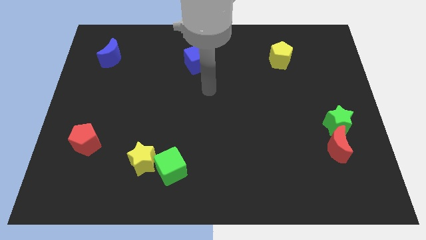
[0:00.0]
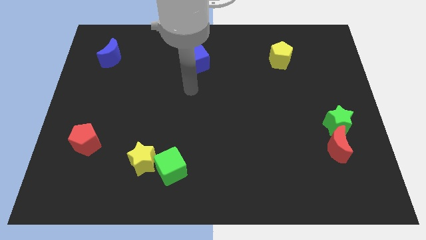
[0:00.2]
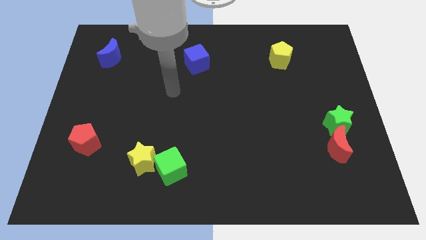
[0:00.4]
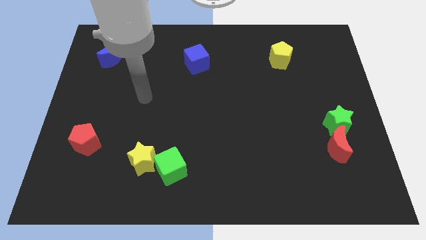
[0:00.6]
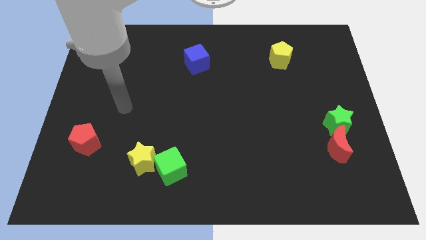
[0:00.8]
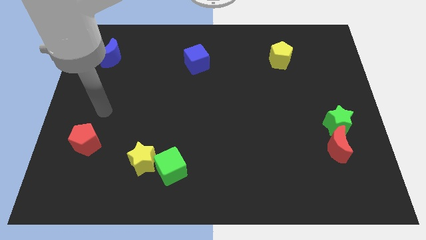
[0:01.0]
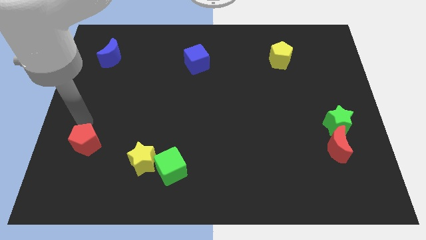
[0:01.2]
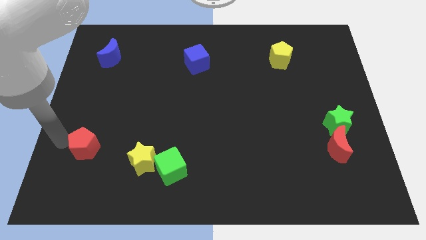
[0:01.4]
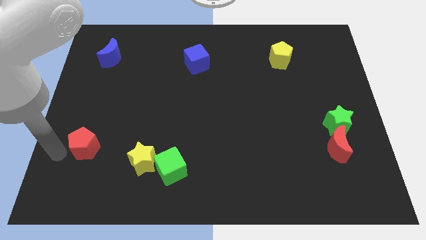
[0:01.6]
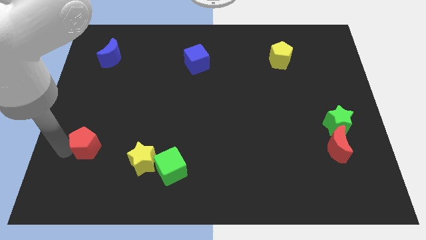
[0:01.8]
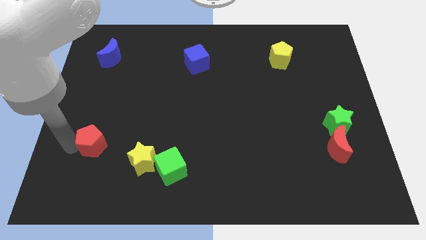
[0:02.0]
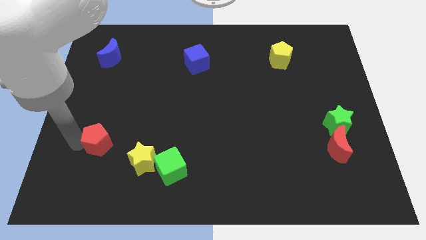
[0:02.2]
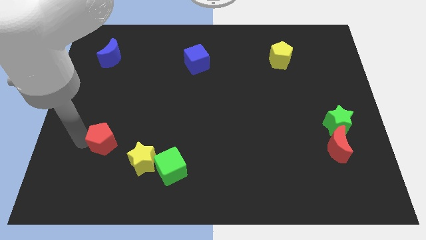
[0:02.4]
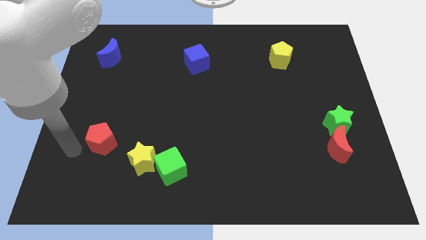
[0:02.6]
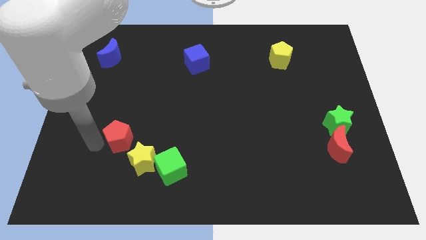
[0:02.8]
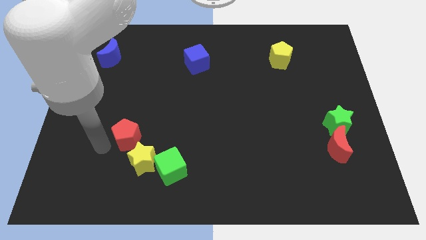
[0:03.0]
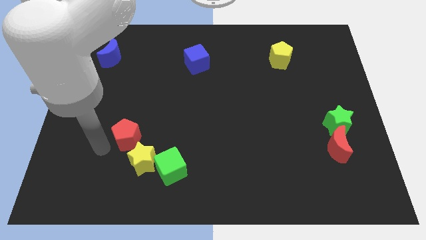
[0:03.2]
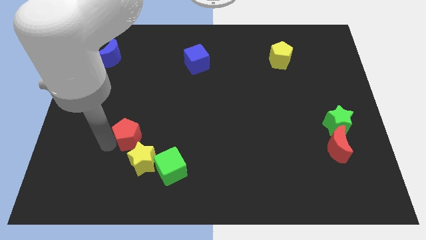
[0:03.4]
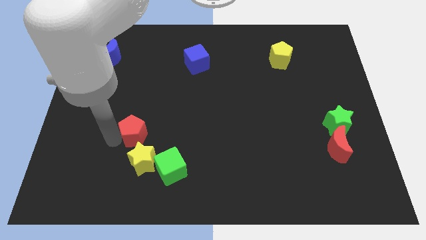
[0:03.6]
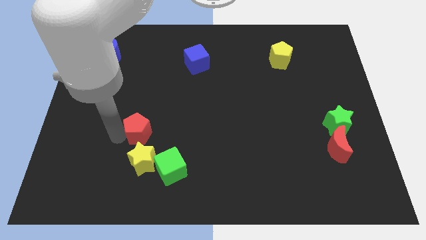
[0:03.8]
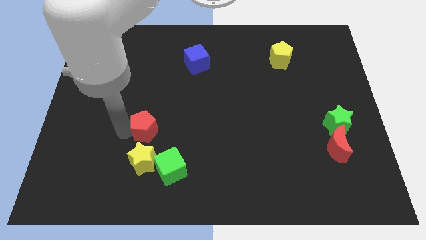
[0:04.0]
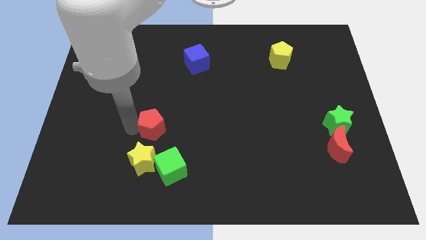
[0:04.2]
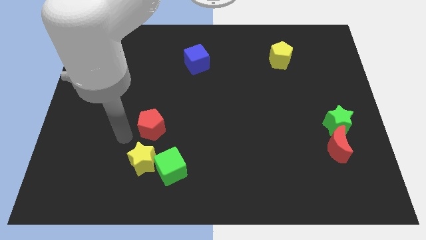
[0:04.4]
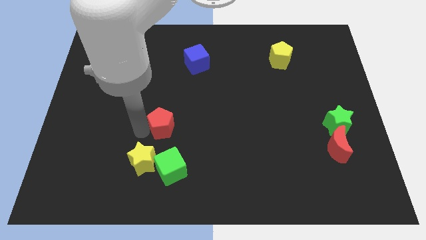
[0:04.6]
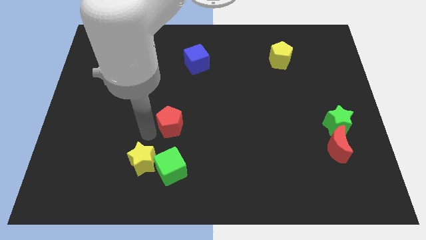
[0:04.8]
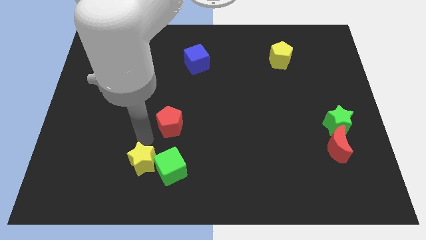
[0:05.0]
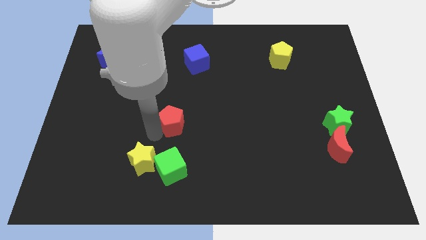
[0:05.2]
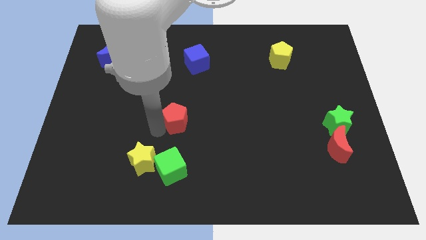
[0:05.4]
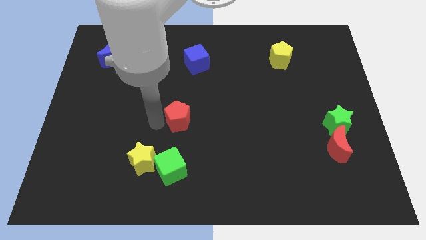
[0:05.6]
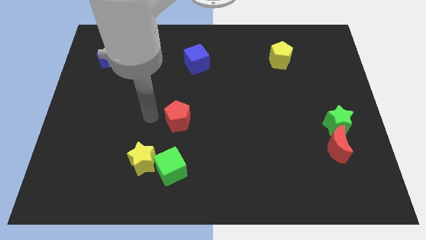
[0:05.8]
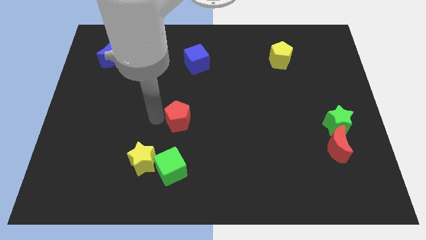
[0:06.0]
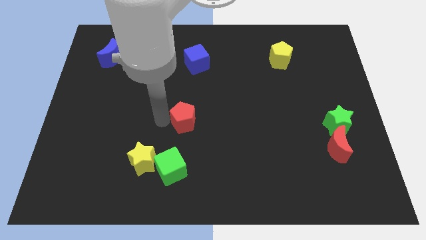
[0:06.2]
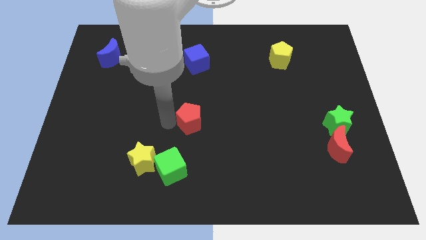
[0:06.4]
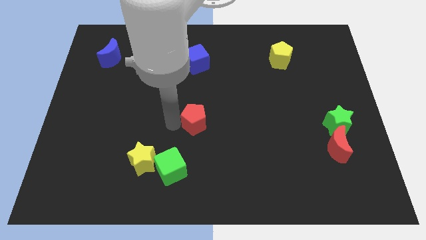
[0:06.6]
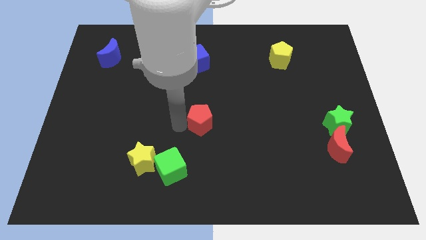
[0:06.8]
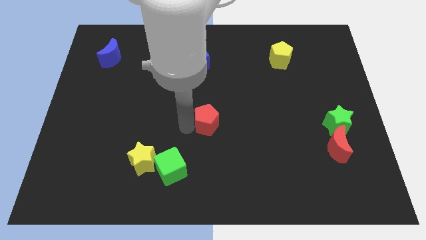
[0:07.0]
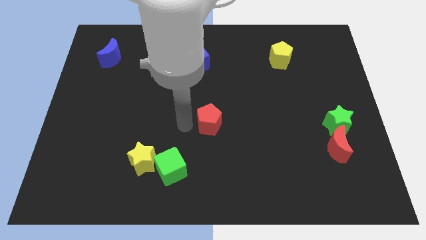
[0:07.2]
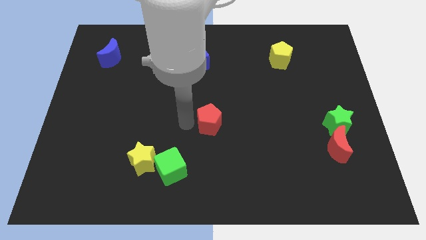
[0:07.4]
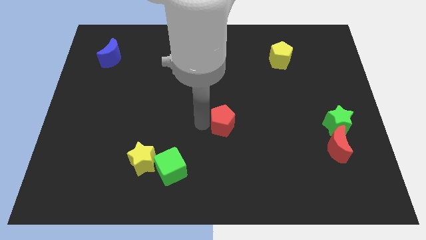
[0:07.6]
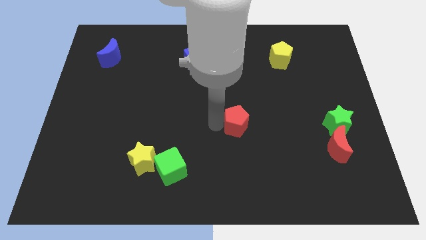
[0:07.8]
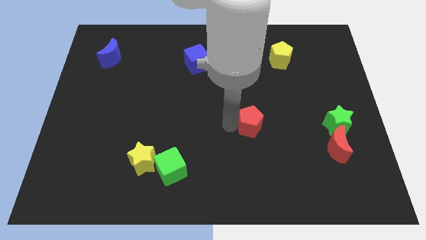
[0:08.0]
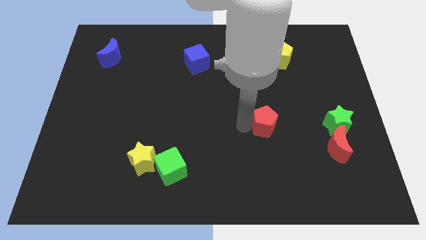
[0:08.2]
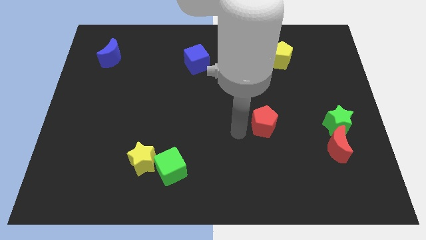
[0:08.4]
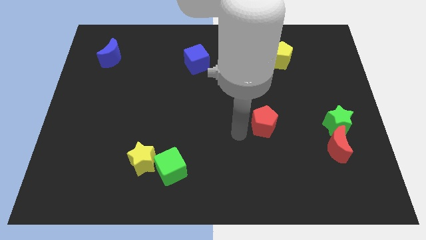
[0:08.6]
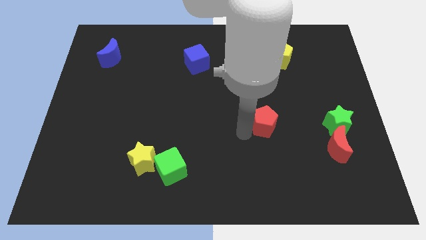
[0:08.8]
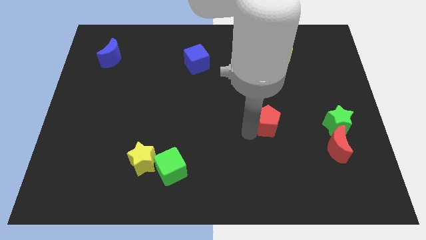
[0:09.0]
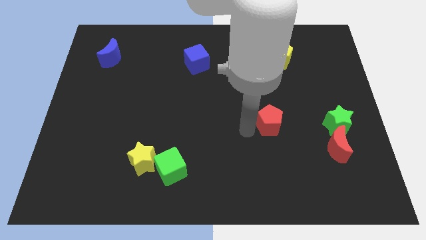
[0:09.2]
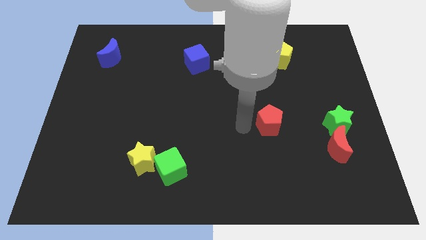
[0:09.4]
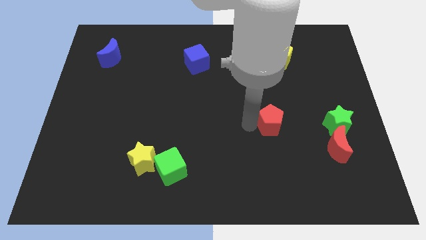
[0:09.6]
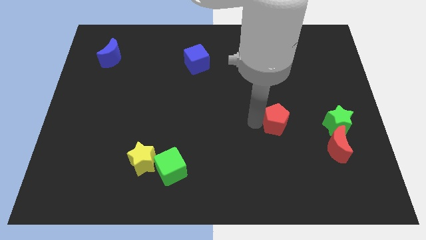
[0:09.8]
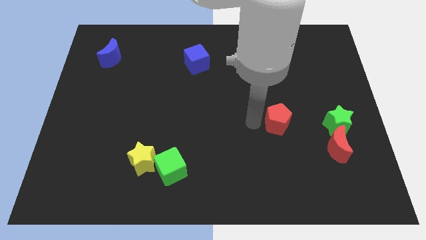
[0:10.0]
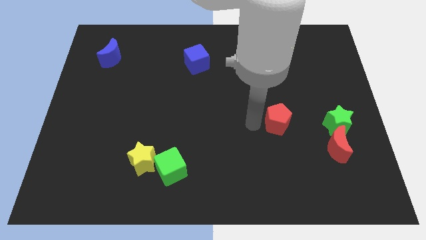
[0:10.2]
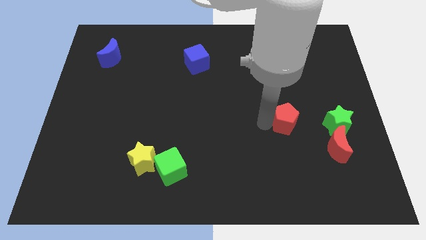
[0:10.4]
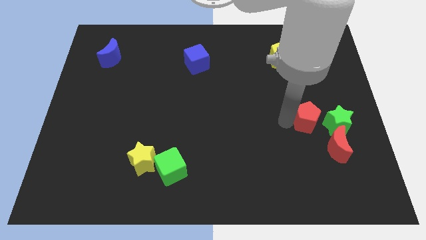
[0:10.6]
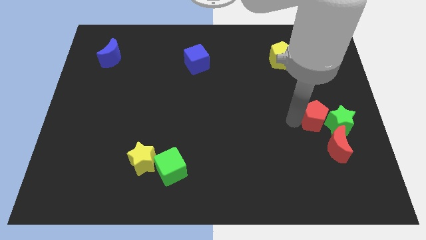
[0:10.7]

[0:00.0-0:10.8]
slide the red pentagon next to the green star

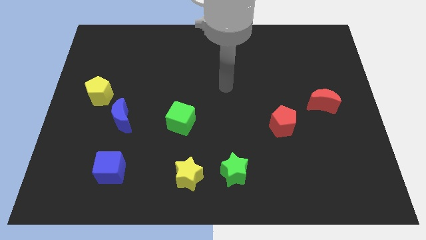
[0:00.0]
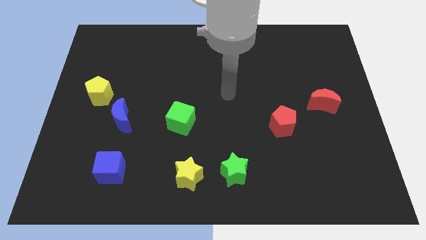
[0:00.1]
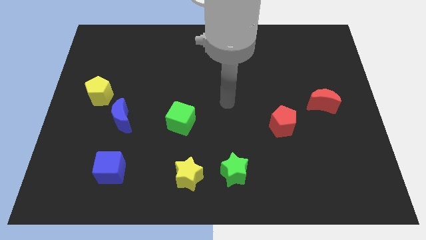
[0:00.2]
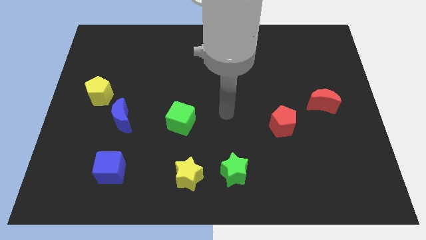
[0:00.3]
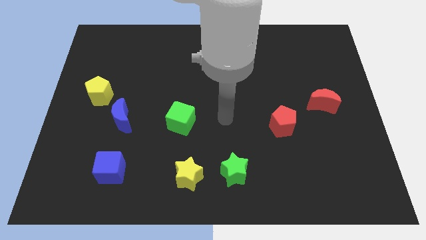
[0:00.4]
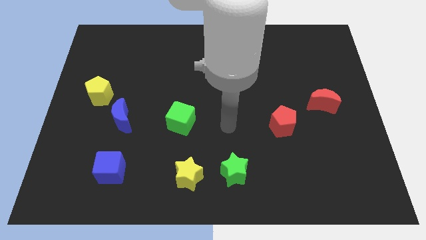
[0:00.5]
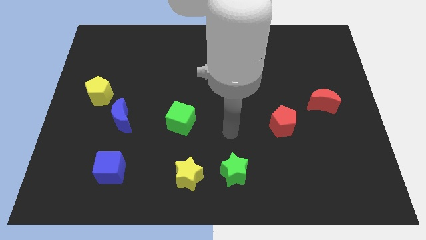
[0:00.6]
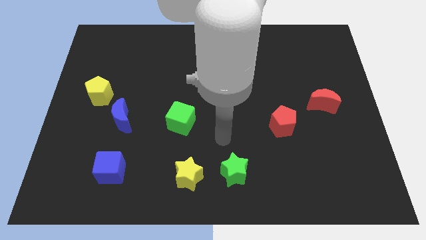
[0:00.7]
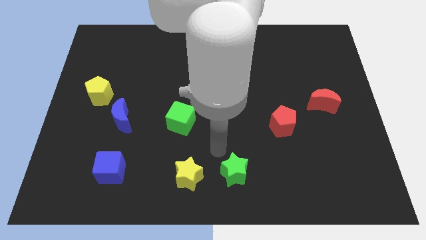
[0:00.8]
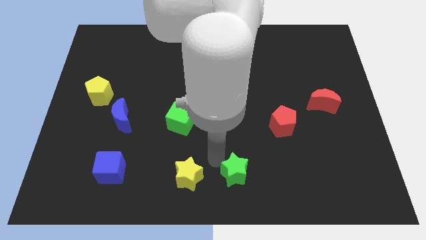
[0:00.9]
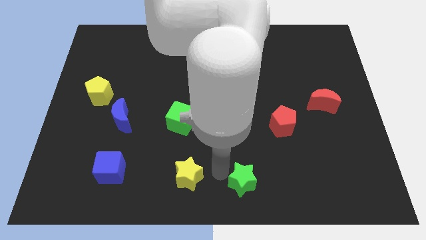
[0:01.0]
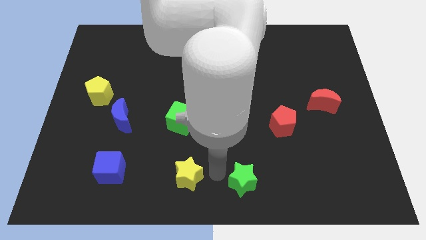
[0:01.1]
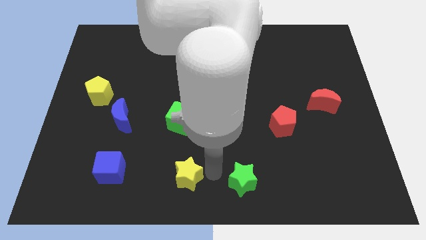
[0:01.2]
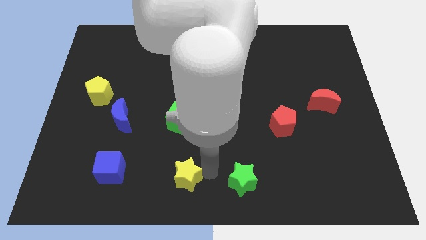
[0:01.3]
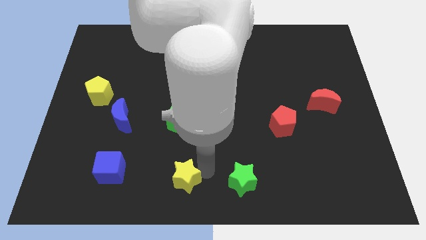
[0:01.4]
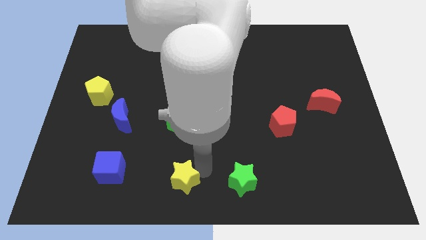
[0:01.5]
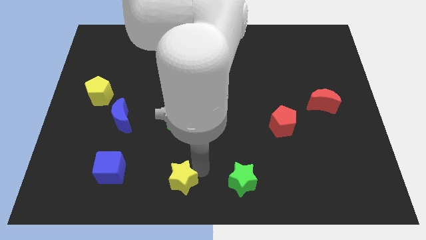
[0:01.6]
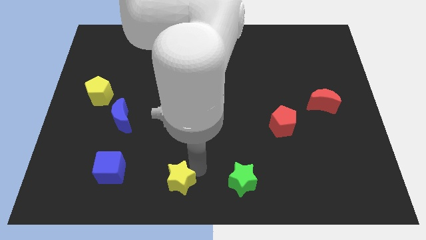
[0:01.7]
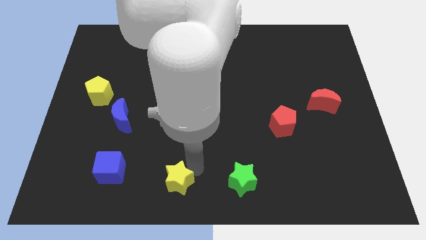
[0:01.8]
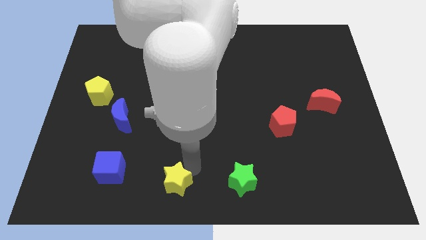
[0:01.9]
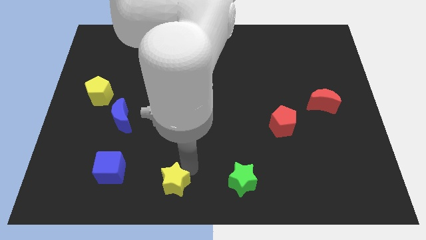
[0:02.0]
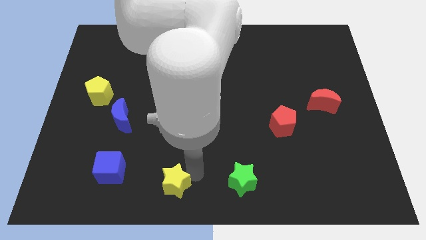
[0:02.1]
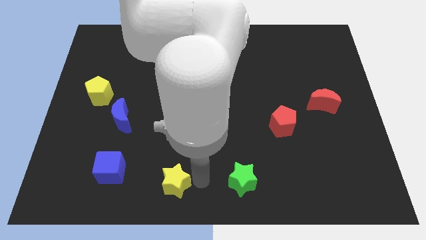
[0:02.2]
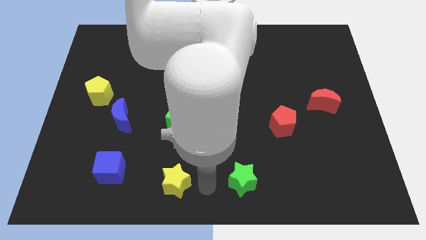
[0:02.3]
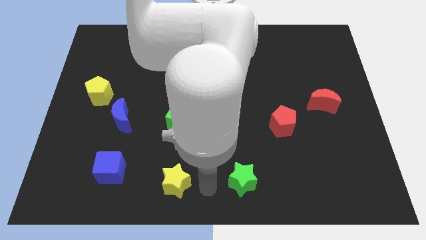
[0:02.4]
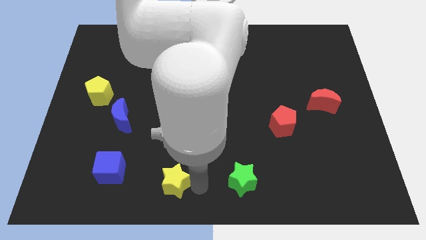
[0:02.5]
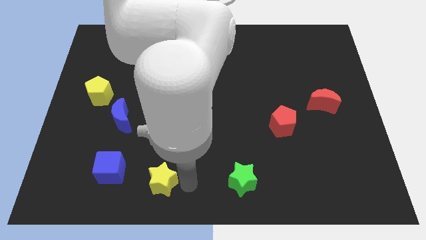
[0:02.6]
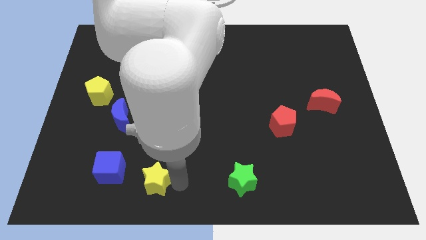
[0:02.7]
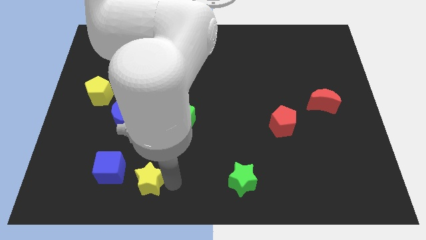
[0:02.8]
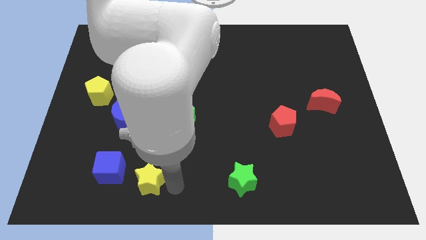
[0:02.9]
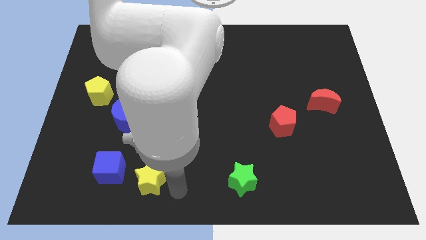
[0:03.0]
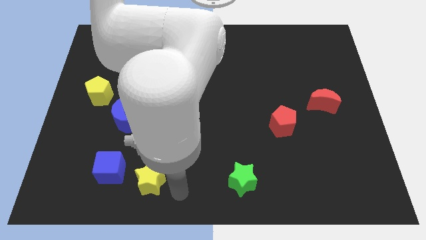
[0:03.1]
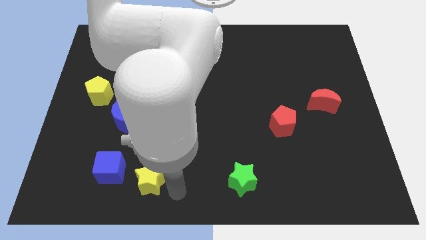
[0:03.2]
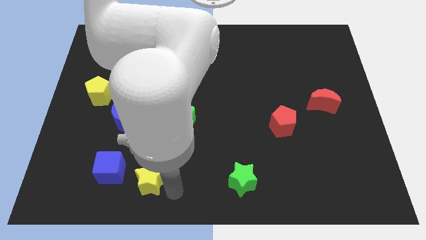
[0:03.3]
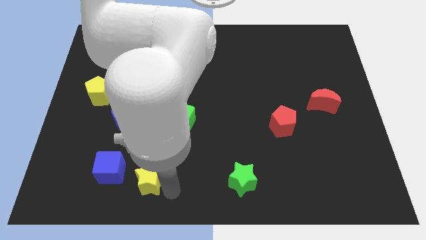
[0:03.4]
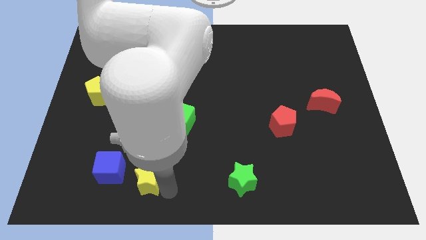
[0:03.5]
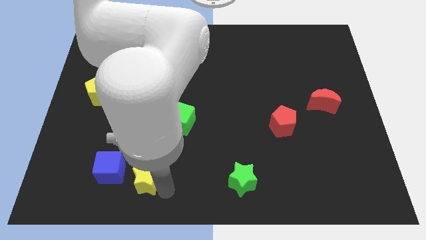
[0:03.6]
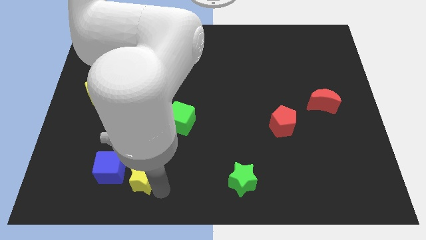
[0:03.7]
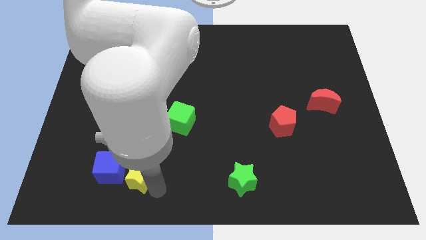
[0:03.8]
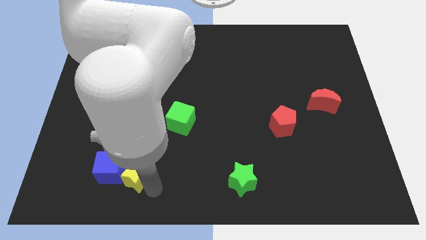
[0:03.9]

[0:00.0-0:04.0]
move the yellow star next to the blue cube
